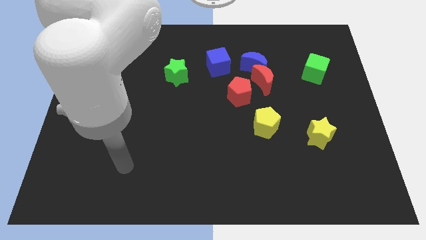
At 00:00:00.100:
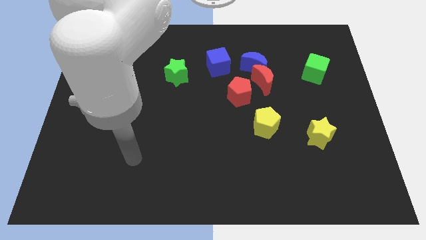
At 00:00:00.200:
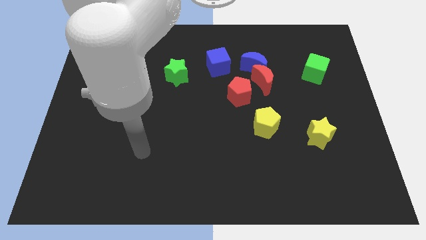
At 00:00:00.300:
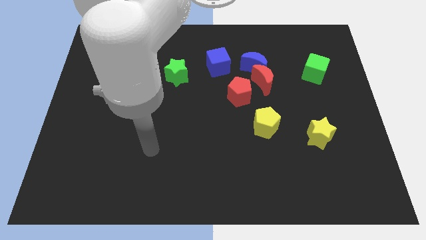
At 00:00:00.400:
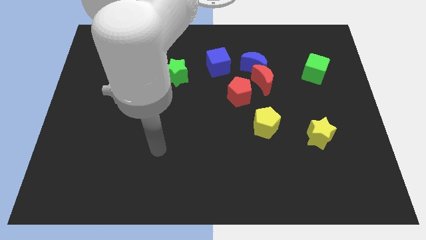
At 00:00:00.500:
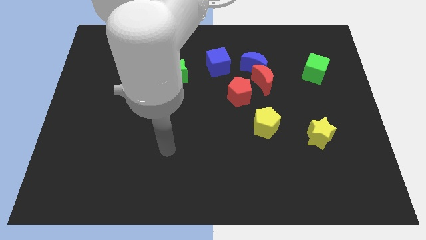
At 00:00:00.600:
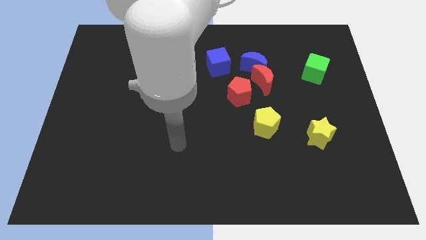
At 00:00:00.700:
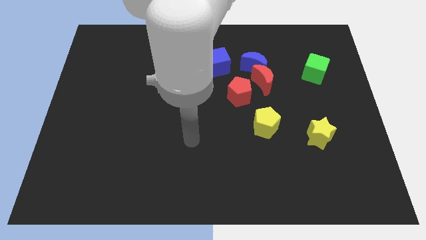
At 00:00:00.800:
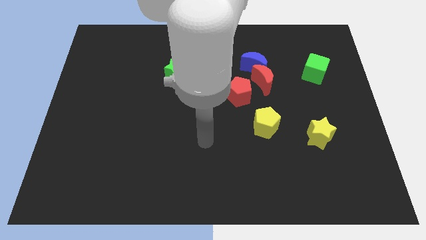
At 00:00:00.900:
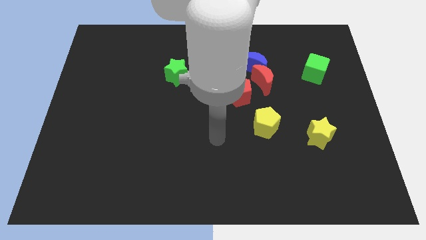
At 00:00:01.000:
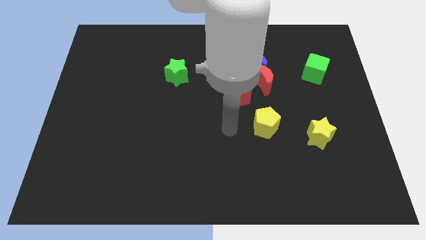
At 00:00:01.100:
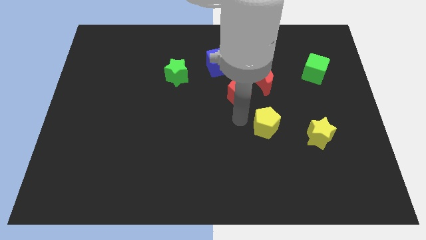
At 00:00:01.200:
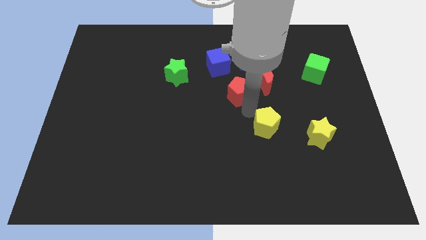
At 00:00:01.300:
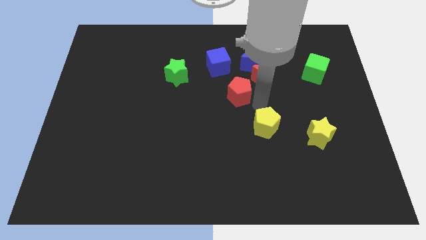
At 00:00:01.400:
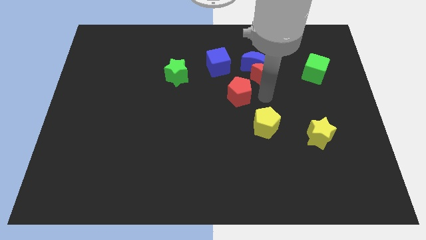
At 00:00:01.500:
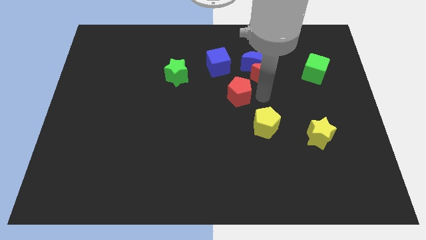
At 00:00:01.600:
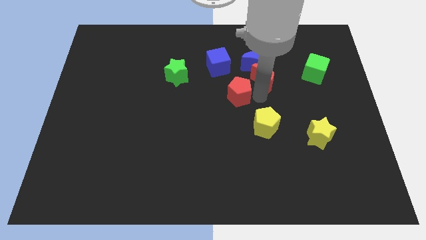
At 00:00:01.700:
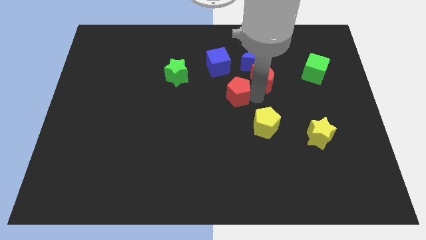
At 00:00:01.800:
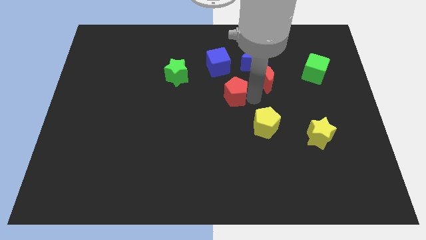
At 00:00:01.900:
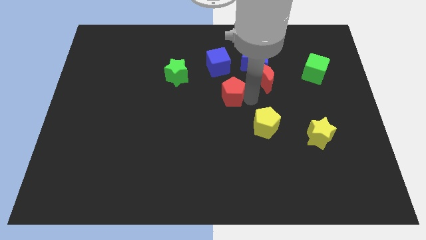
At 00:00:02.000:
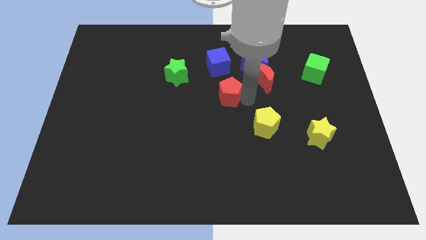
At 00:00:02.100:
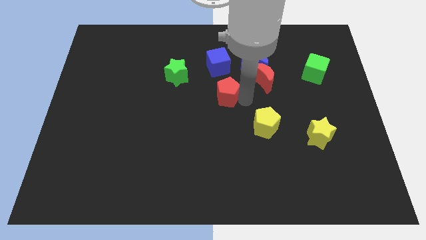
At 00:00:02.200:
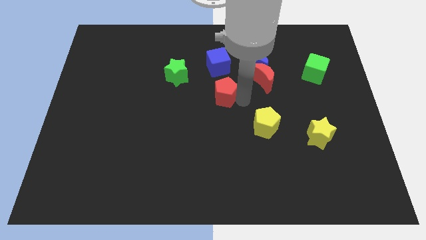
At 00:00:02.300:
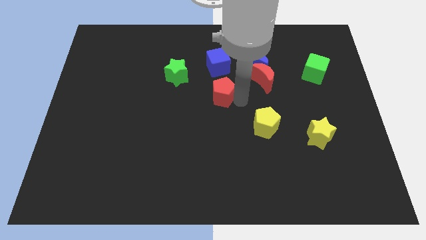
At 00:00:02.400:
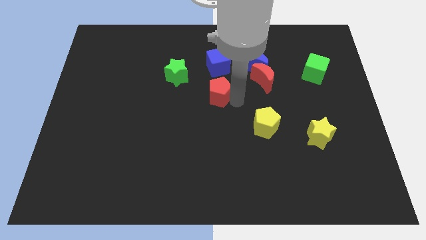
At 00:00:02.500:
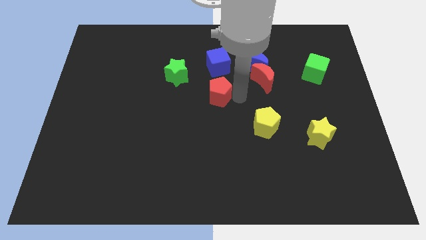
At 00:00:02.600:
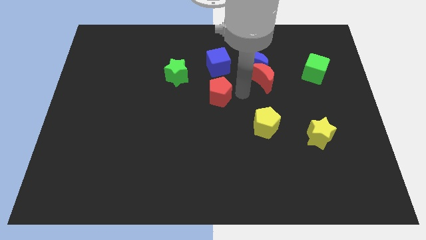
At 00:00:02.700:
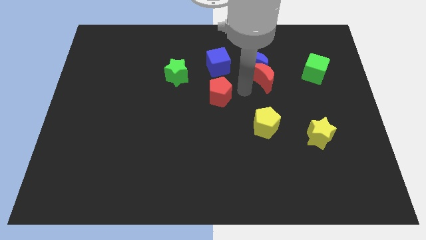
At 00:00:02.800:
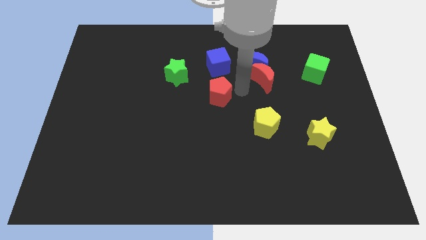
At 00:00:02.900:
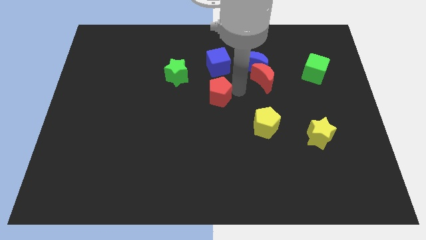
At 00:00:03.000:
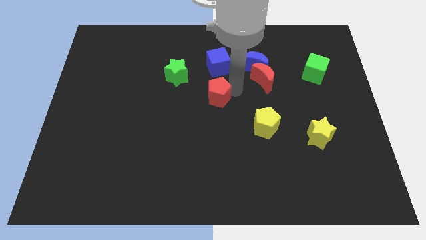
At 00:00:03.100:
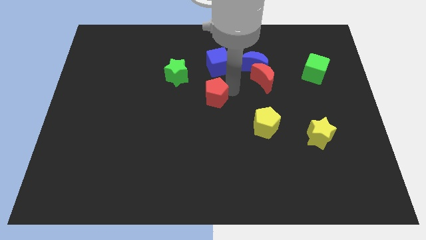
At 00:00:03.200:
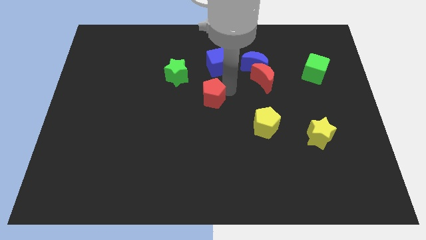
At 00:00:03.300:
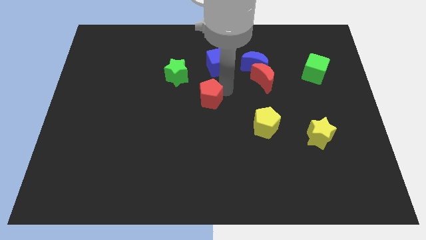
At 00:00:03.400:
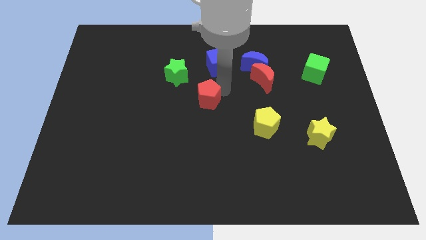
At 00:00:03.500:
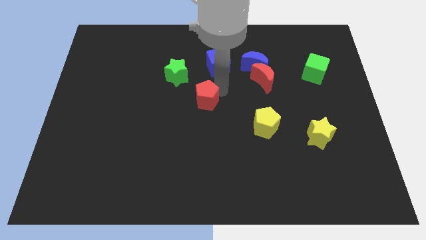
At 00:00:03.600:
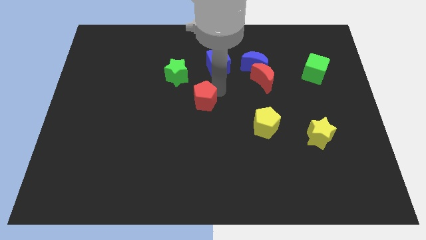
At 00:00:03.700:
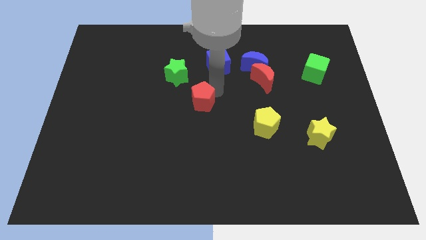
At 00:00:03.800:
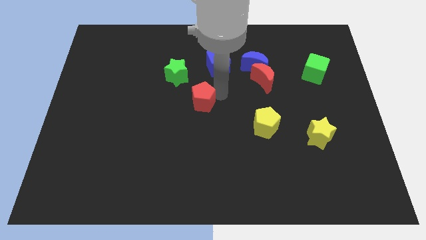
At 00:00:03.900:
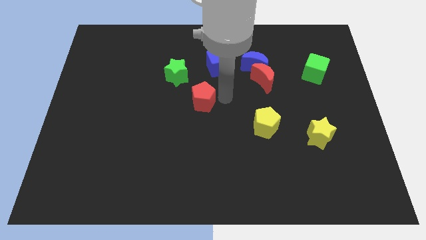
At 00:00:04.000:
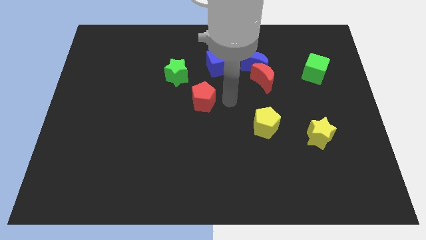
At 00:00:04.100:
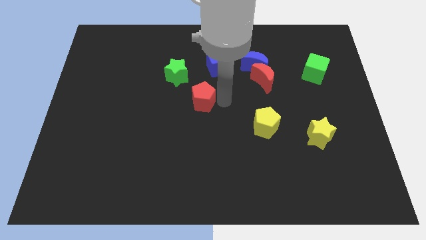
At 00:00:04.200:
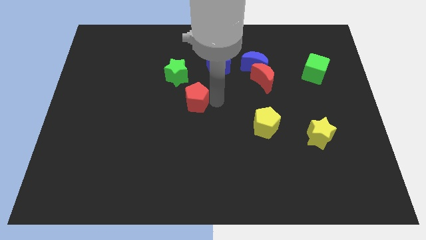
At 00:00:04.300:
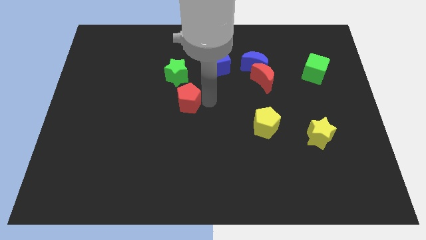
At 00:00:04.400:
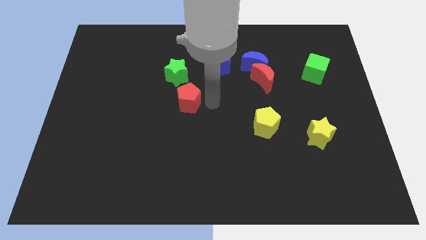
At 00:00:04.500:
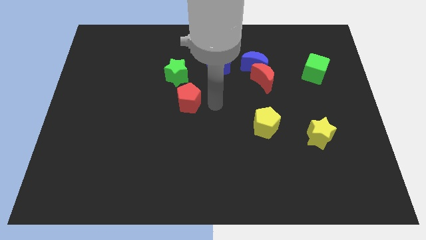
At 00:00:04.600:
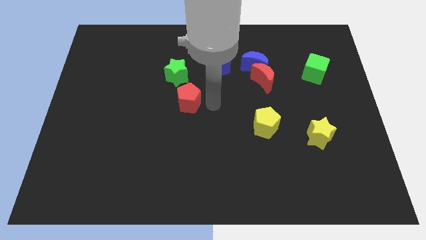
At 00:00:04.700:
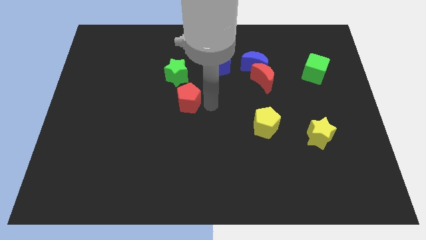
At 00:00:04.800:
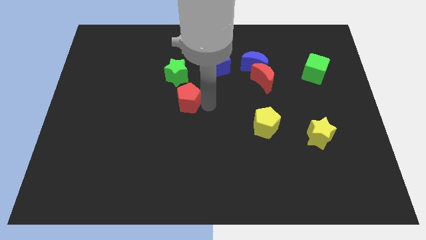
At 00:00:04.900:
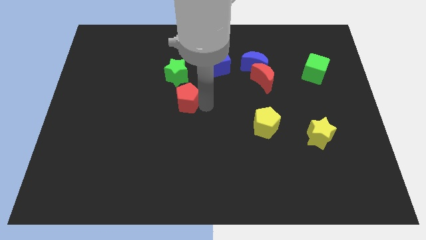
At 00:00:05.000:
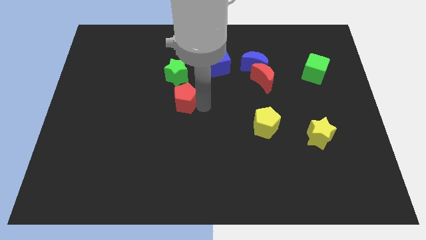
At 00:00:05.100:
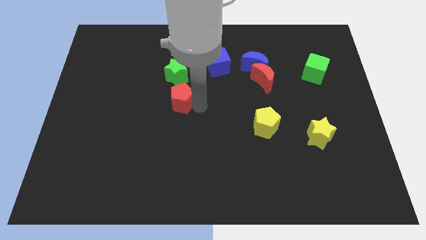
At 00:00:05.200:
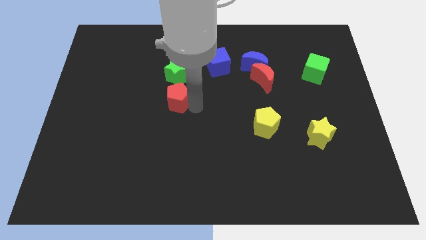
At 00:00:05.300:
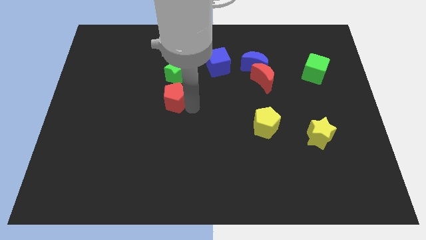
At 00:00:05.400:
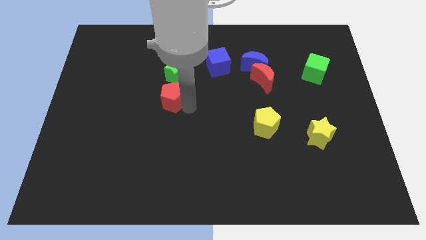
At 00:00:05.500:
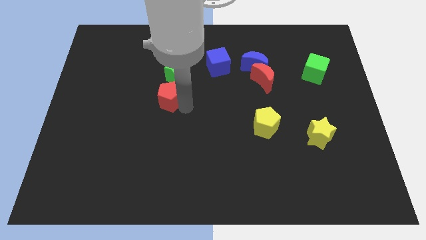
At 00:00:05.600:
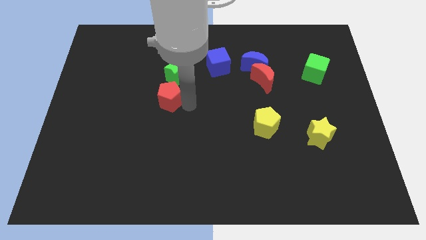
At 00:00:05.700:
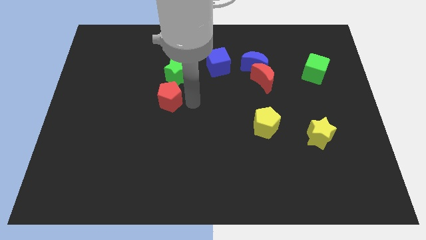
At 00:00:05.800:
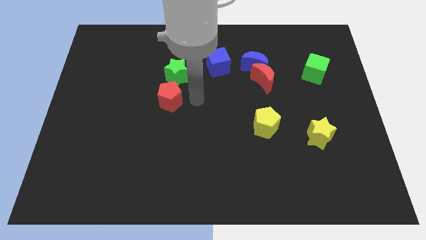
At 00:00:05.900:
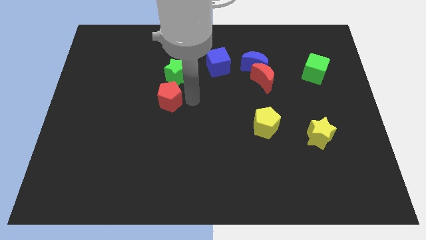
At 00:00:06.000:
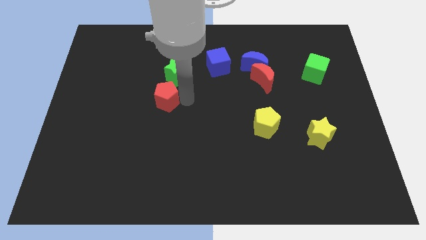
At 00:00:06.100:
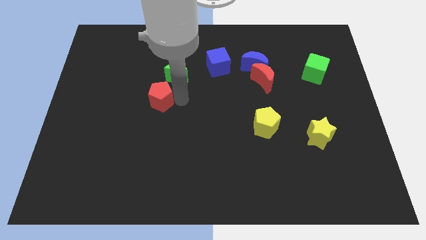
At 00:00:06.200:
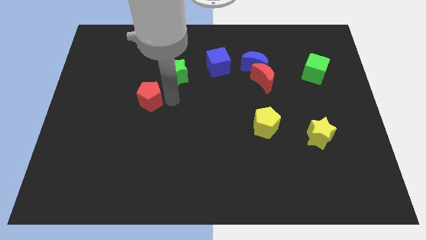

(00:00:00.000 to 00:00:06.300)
push the red pentagon left

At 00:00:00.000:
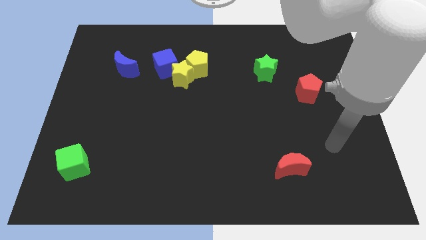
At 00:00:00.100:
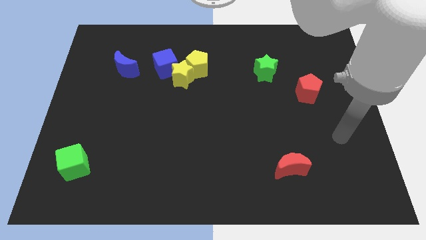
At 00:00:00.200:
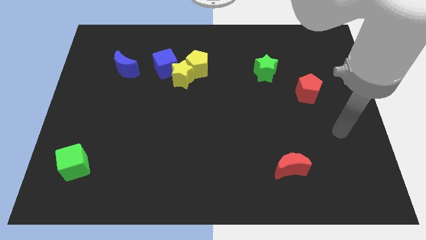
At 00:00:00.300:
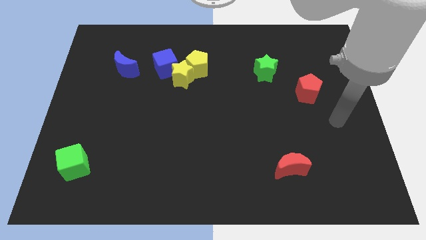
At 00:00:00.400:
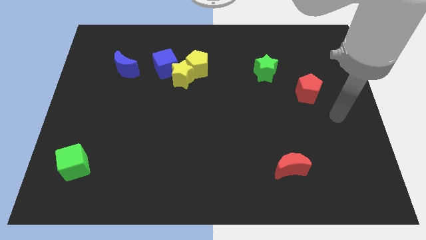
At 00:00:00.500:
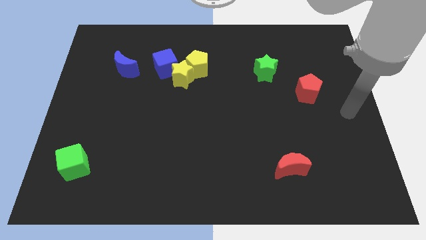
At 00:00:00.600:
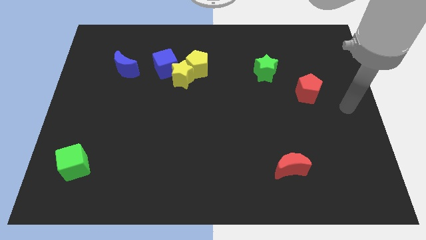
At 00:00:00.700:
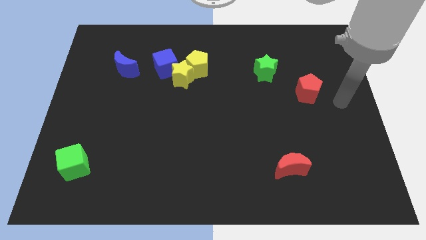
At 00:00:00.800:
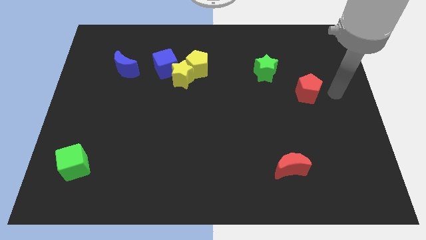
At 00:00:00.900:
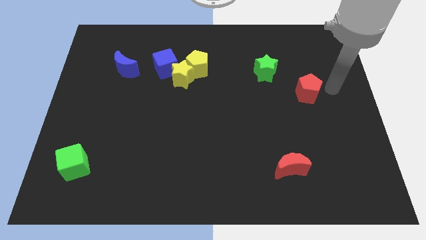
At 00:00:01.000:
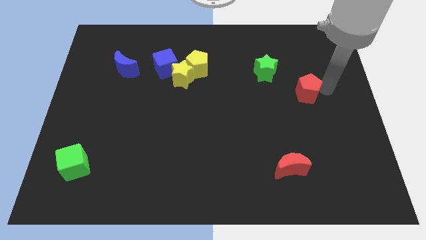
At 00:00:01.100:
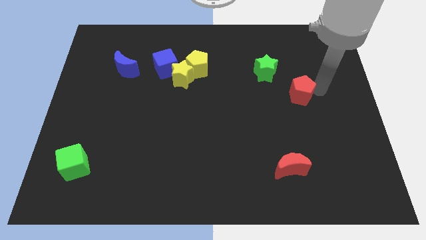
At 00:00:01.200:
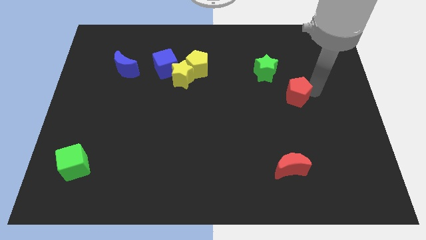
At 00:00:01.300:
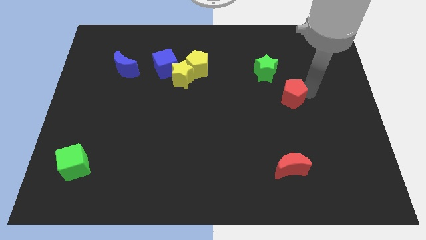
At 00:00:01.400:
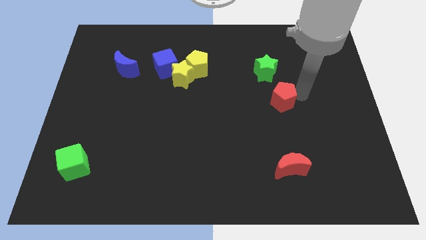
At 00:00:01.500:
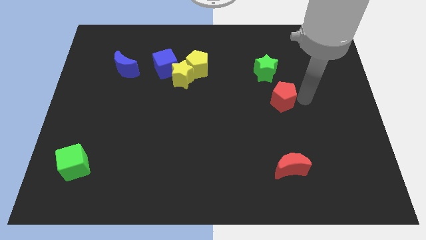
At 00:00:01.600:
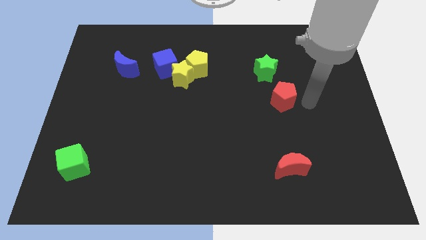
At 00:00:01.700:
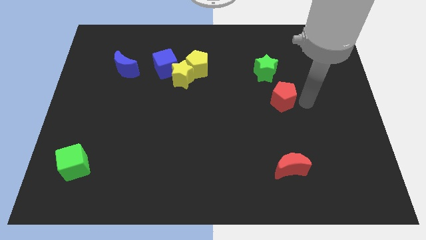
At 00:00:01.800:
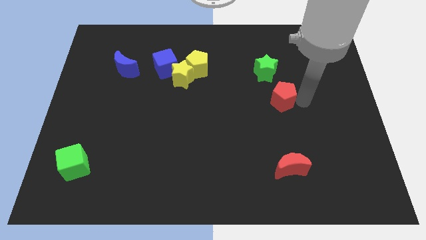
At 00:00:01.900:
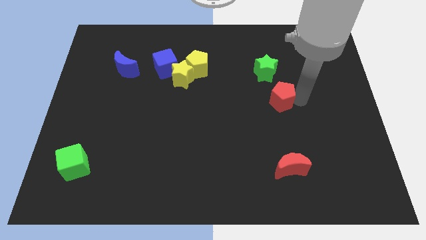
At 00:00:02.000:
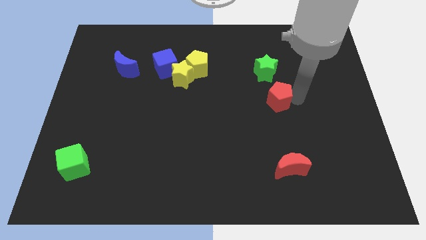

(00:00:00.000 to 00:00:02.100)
move the red pentagon somewhat to the left

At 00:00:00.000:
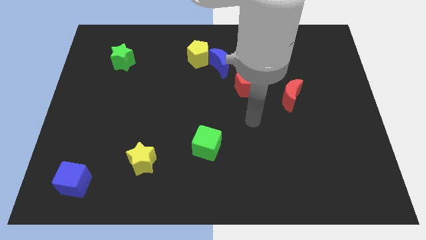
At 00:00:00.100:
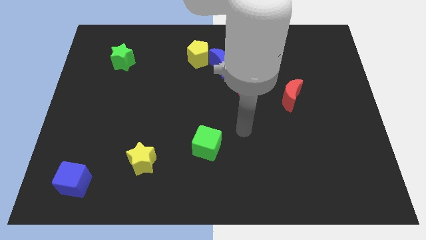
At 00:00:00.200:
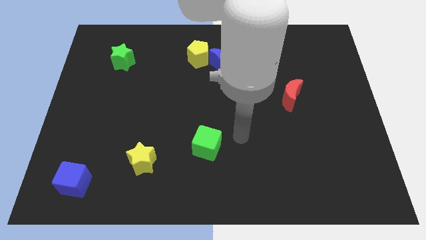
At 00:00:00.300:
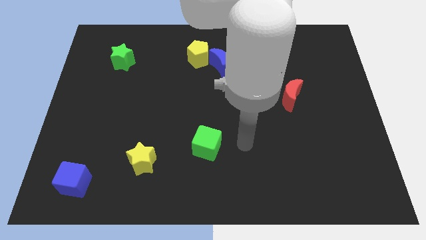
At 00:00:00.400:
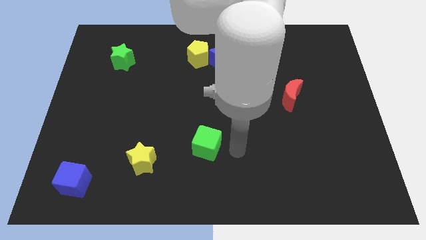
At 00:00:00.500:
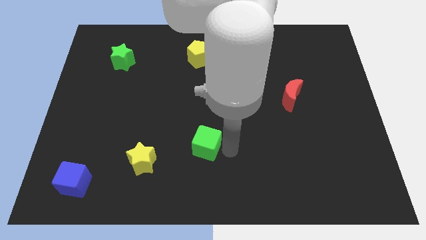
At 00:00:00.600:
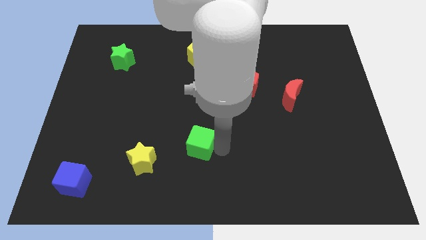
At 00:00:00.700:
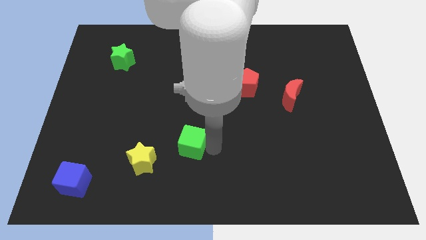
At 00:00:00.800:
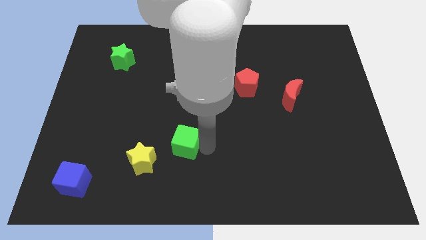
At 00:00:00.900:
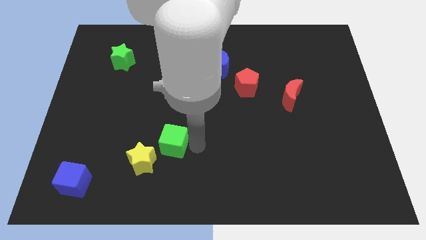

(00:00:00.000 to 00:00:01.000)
slightly move the green cube to the left
